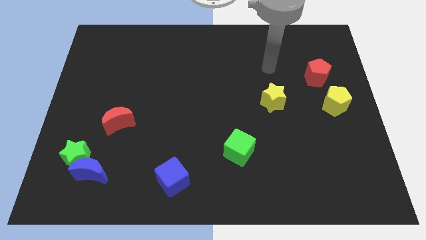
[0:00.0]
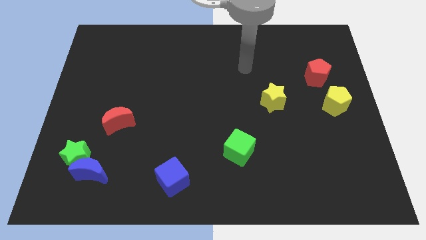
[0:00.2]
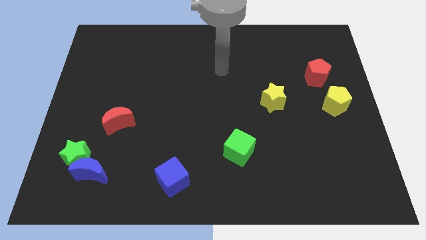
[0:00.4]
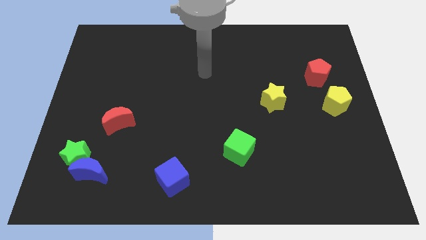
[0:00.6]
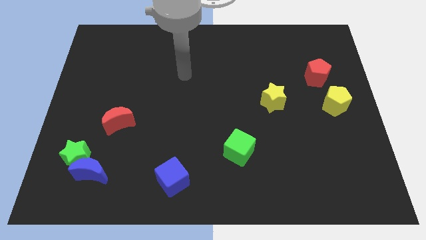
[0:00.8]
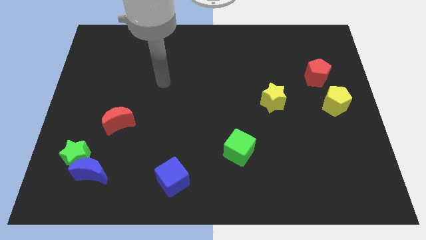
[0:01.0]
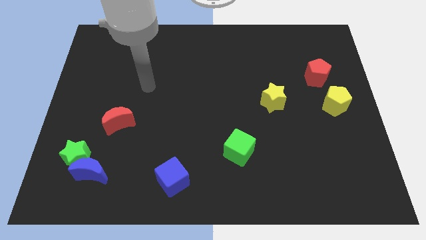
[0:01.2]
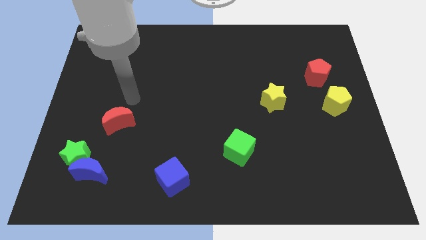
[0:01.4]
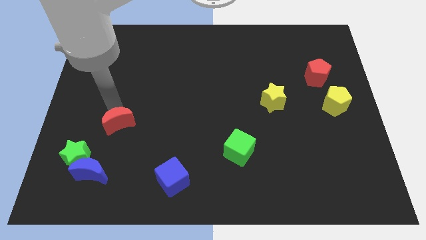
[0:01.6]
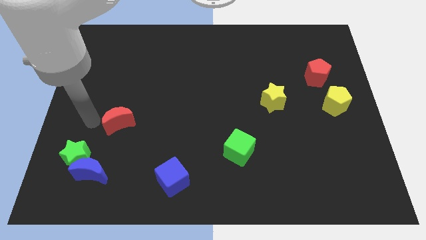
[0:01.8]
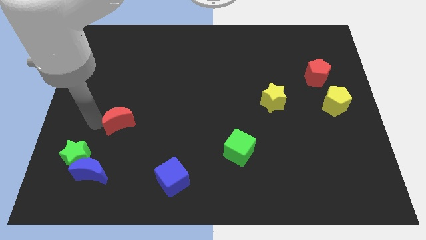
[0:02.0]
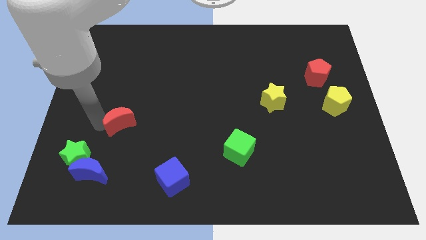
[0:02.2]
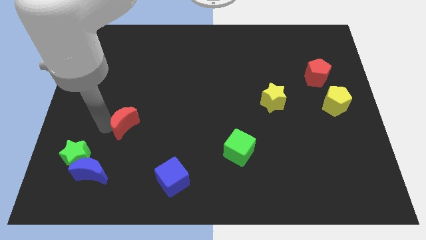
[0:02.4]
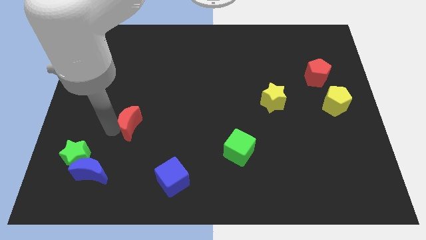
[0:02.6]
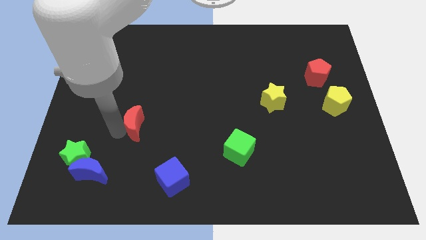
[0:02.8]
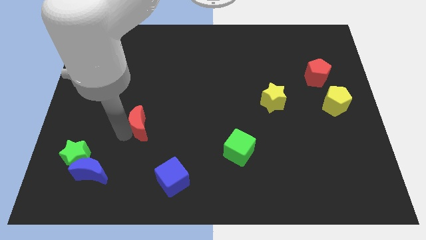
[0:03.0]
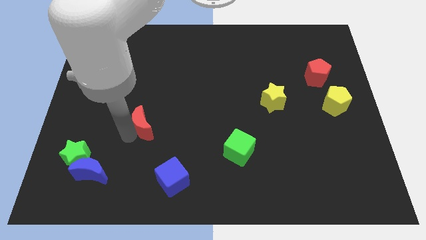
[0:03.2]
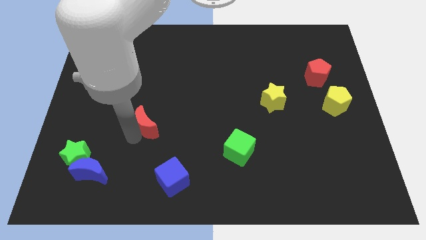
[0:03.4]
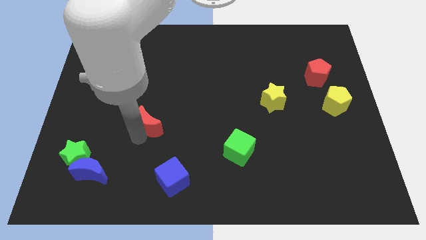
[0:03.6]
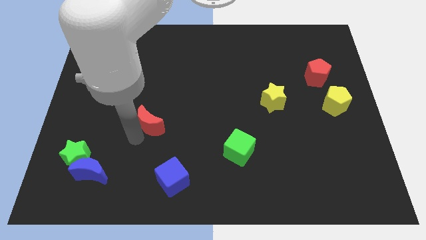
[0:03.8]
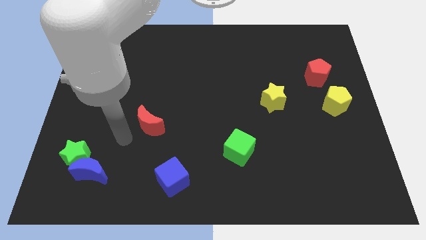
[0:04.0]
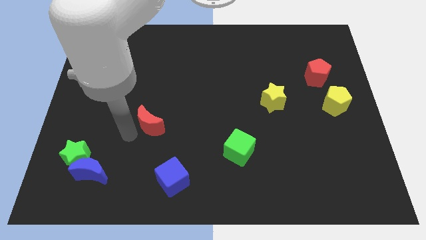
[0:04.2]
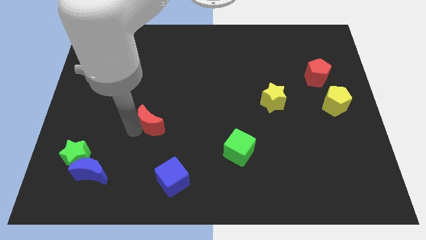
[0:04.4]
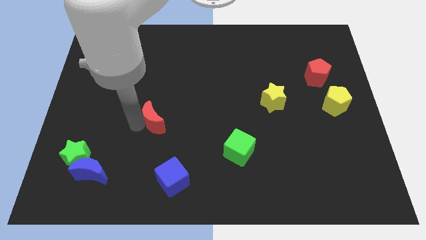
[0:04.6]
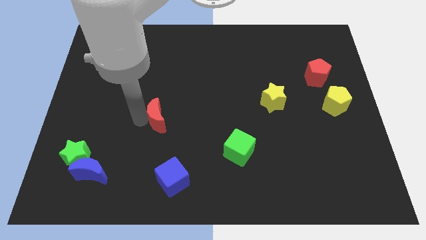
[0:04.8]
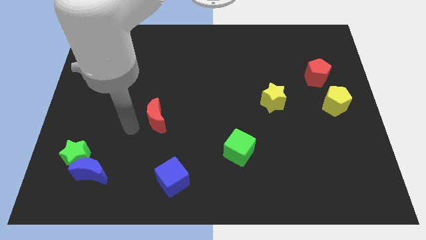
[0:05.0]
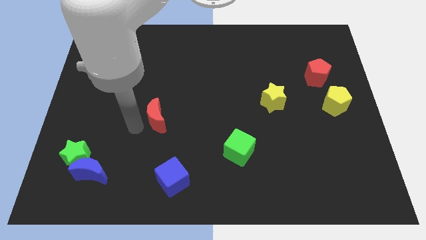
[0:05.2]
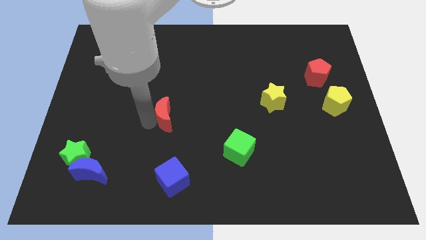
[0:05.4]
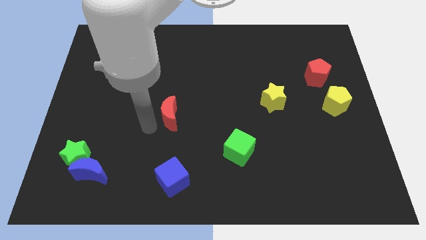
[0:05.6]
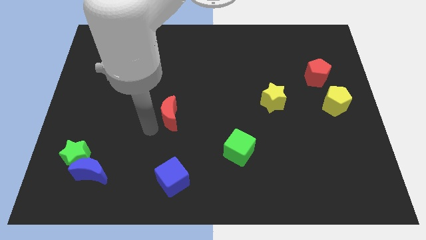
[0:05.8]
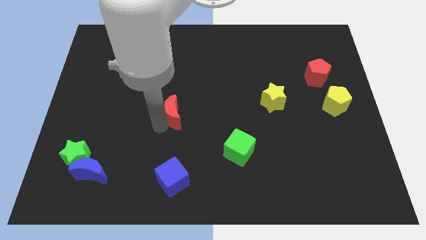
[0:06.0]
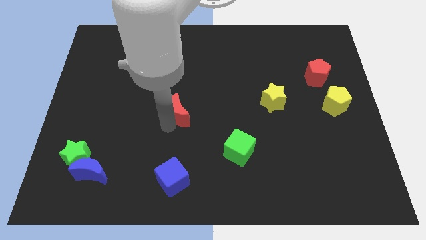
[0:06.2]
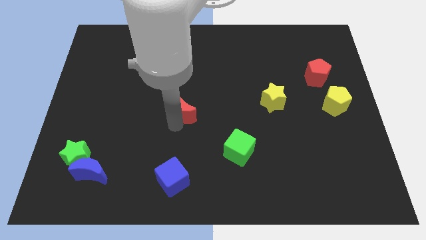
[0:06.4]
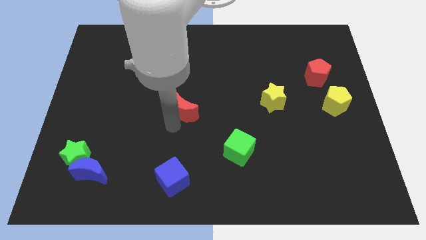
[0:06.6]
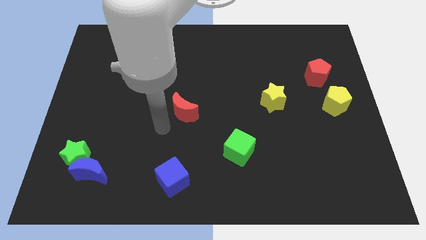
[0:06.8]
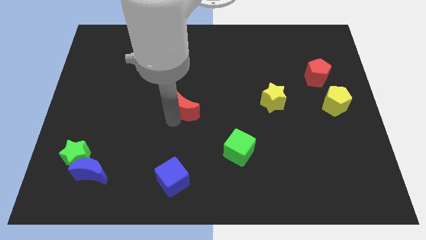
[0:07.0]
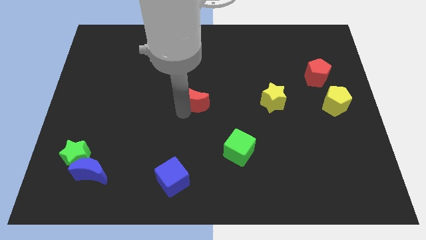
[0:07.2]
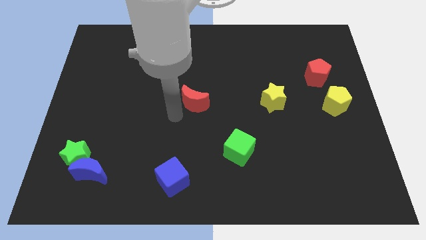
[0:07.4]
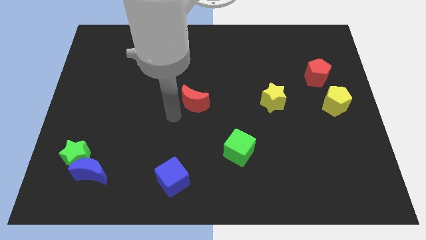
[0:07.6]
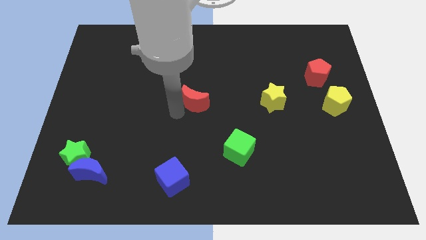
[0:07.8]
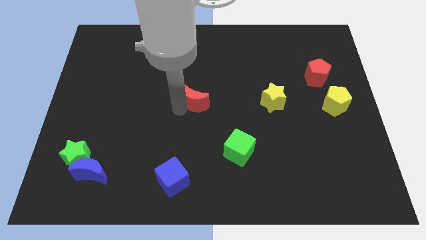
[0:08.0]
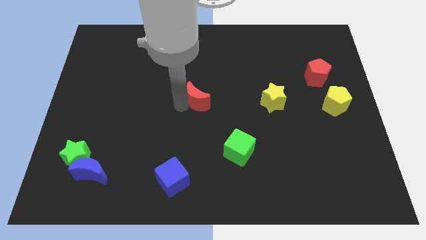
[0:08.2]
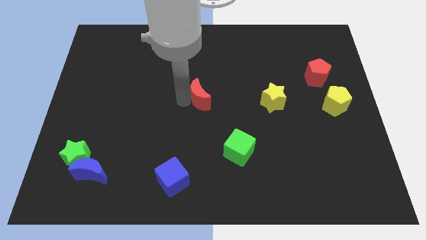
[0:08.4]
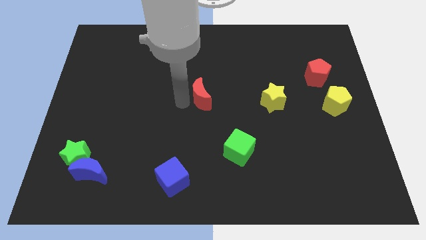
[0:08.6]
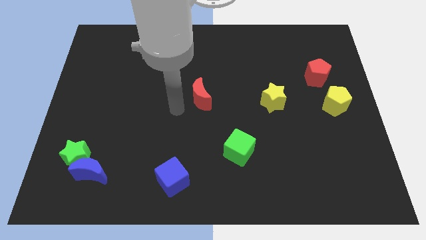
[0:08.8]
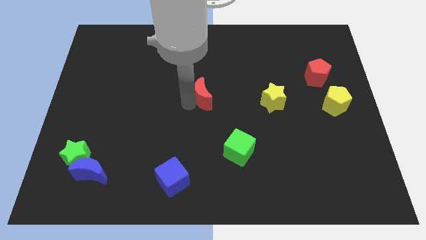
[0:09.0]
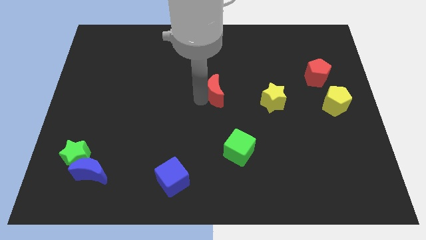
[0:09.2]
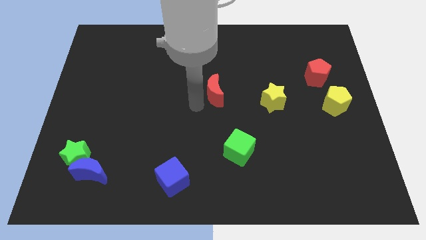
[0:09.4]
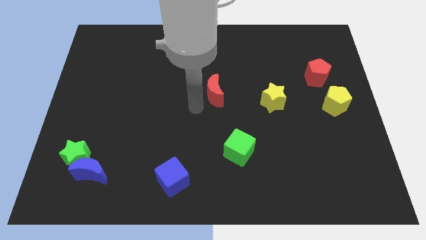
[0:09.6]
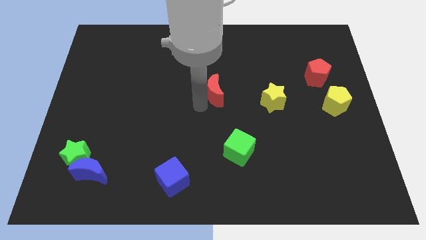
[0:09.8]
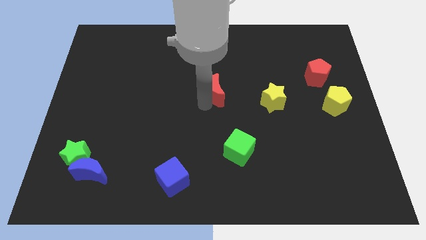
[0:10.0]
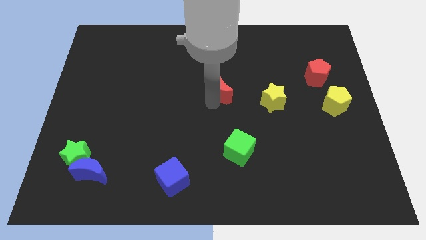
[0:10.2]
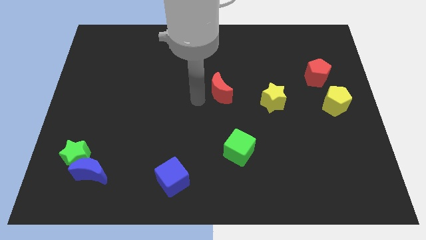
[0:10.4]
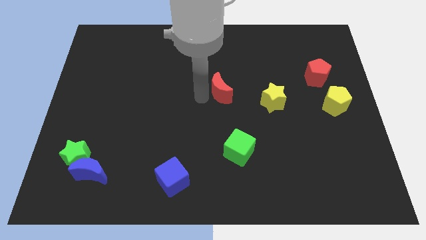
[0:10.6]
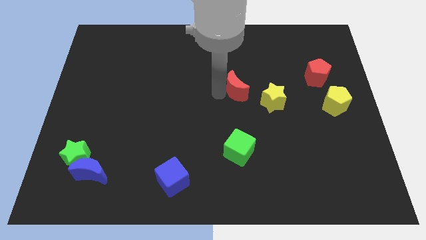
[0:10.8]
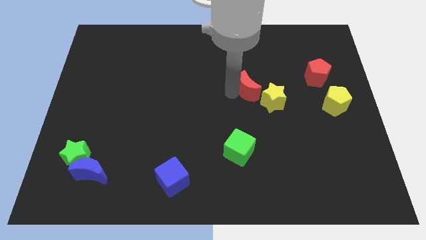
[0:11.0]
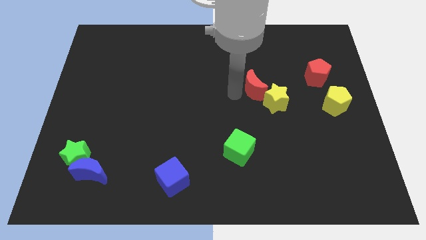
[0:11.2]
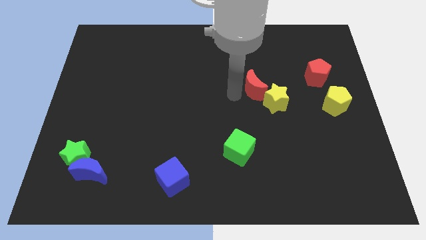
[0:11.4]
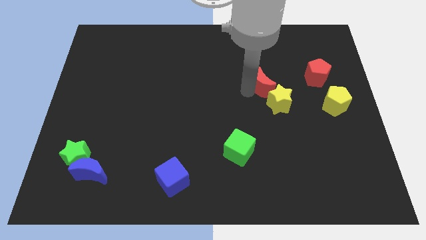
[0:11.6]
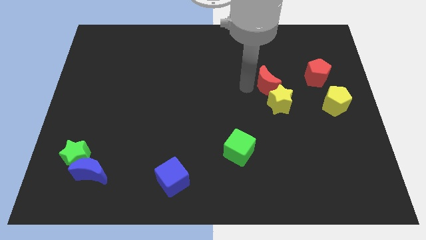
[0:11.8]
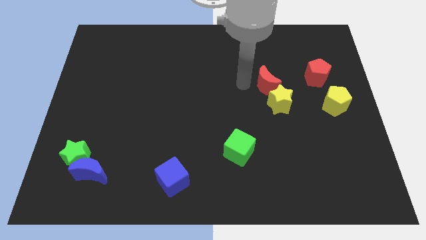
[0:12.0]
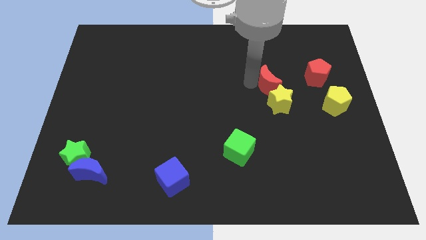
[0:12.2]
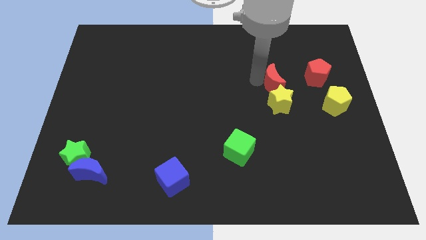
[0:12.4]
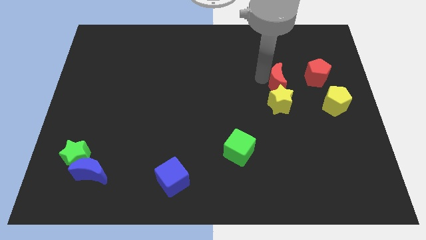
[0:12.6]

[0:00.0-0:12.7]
push the red moon to the top right side of the yellow star

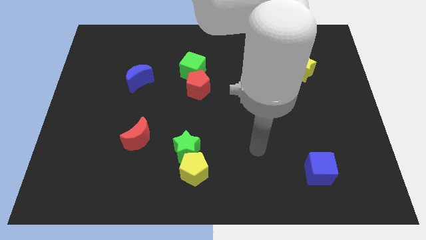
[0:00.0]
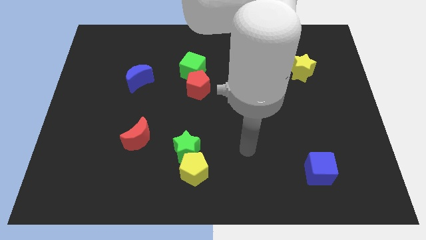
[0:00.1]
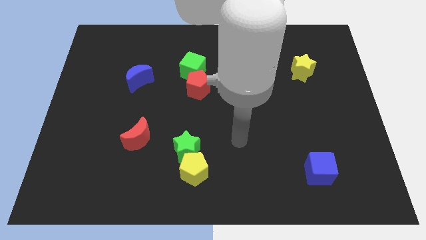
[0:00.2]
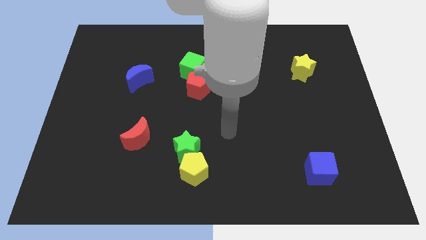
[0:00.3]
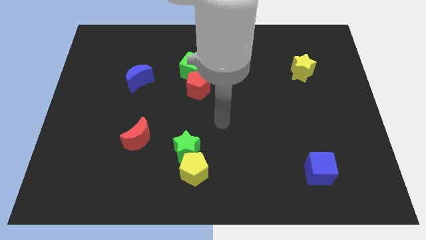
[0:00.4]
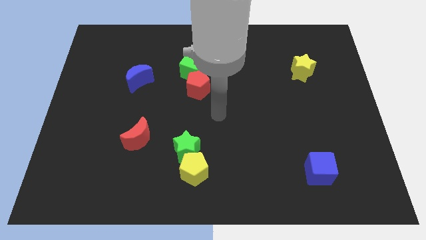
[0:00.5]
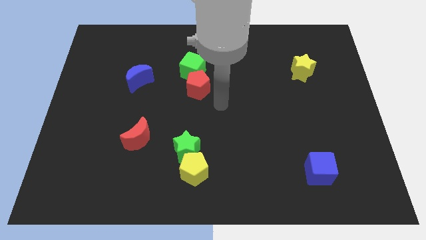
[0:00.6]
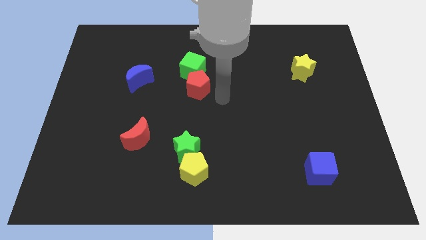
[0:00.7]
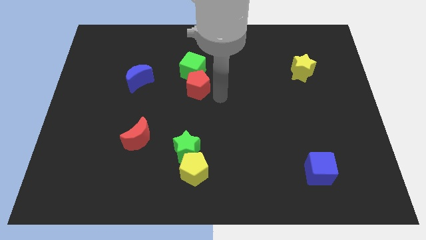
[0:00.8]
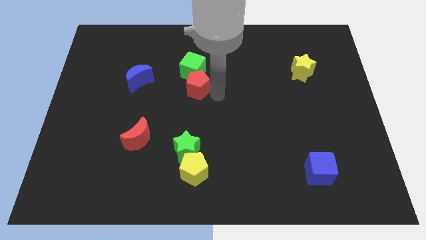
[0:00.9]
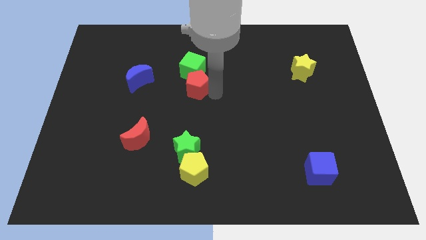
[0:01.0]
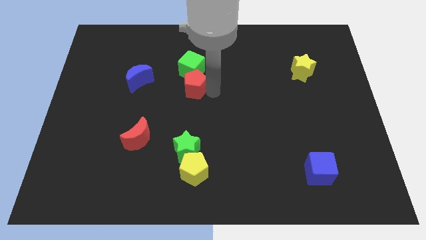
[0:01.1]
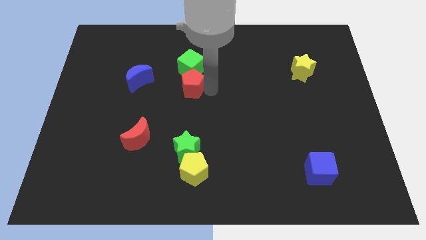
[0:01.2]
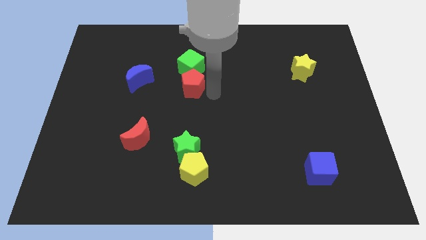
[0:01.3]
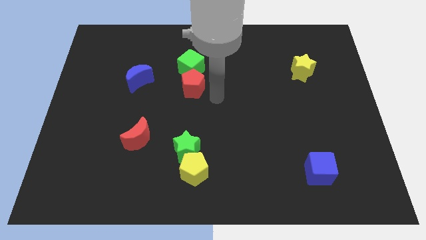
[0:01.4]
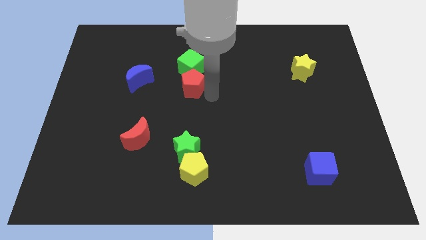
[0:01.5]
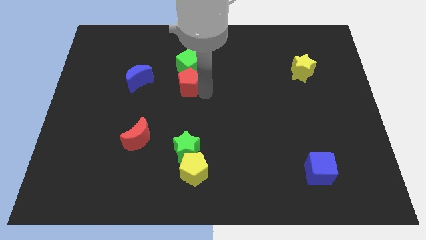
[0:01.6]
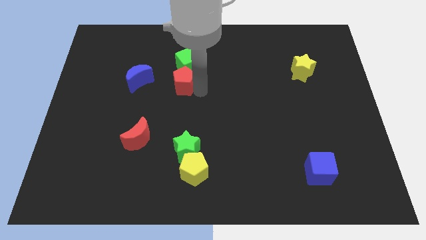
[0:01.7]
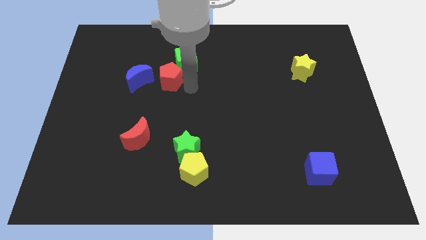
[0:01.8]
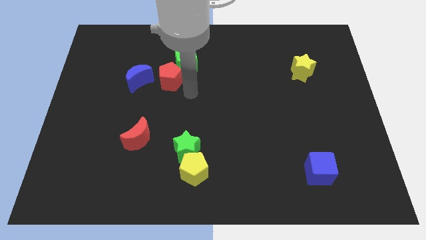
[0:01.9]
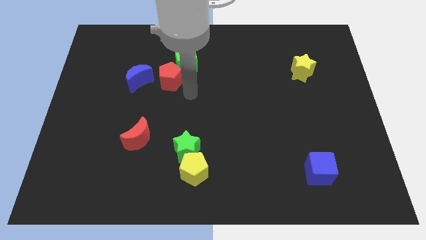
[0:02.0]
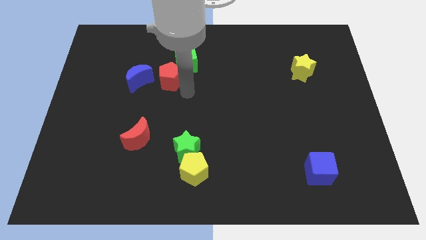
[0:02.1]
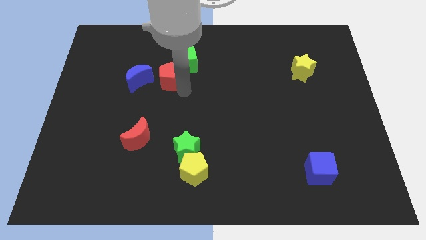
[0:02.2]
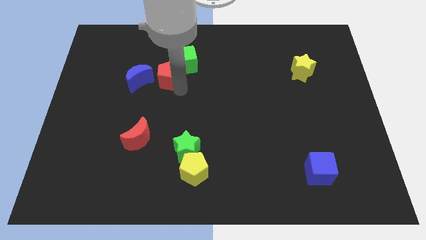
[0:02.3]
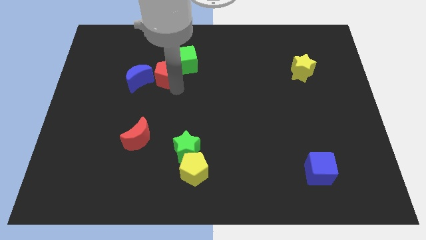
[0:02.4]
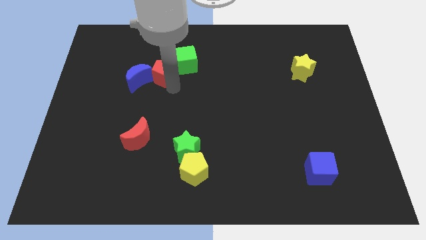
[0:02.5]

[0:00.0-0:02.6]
move the red pentagon left of the green cube
